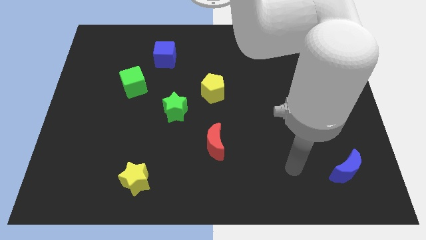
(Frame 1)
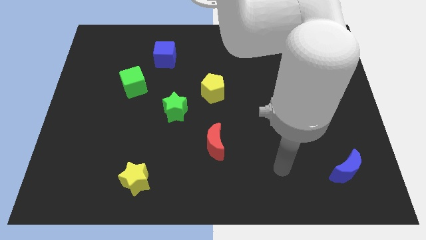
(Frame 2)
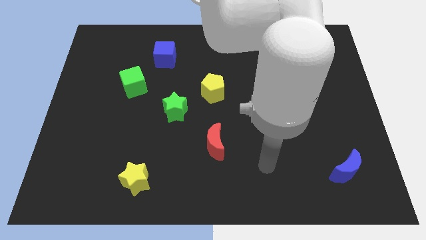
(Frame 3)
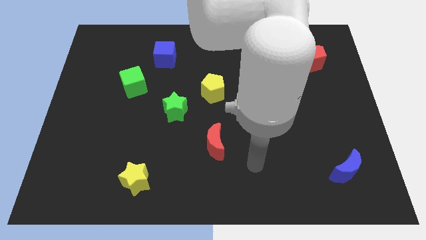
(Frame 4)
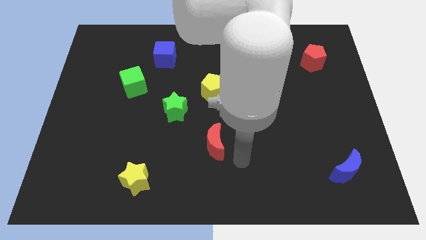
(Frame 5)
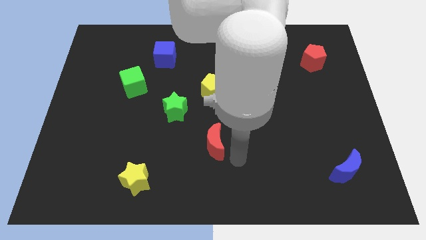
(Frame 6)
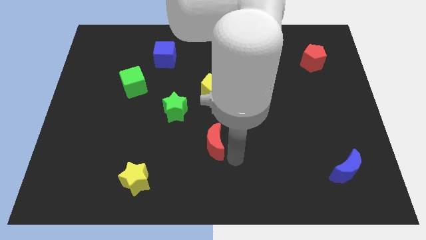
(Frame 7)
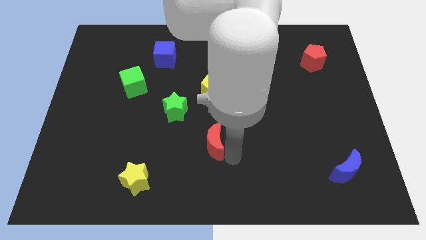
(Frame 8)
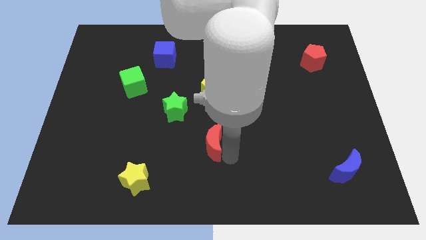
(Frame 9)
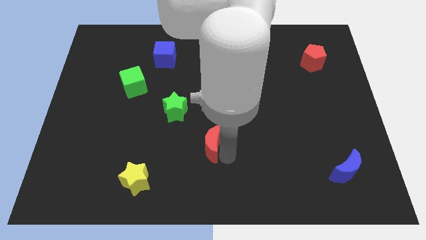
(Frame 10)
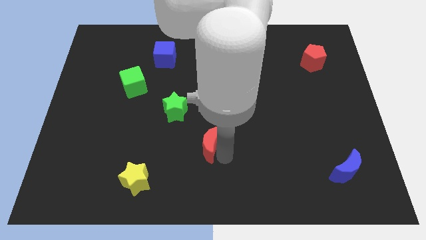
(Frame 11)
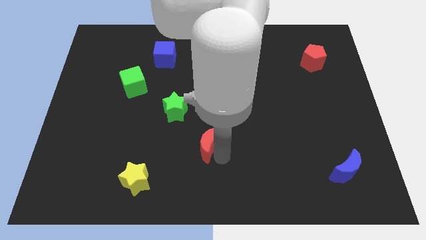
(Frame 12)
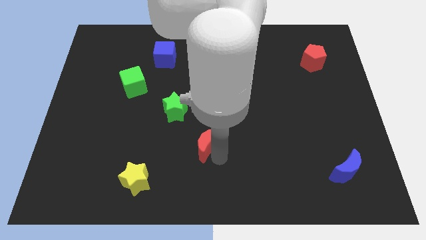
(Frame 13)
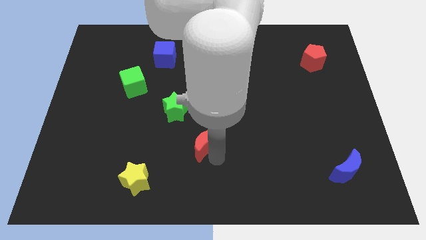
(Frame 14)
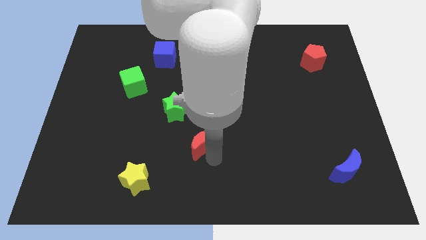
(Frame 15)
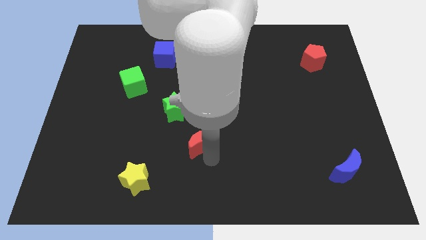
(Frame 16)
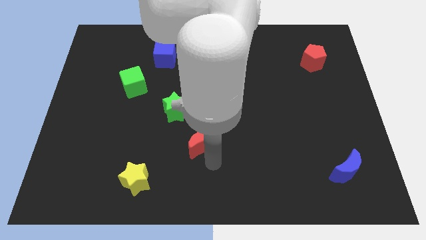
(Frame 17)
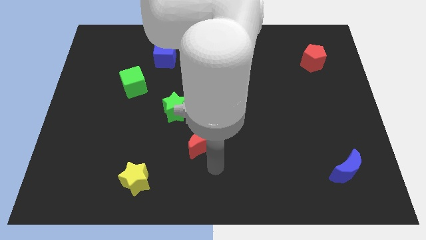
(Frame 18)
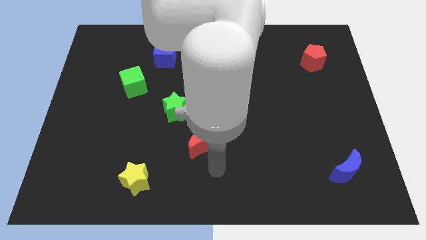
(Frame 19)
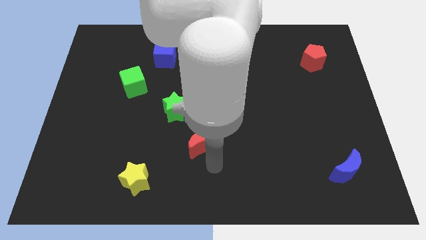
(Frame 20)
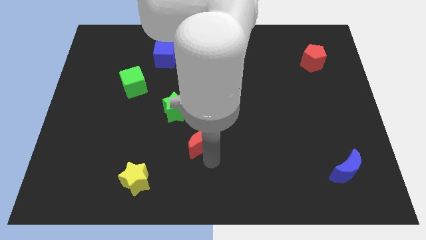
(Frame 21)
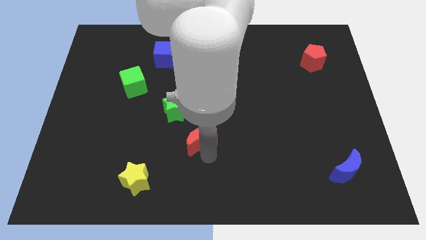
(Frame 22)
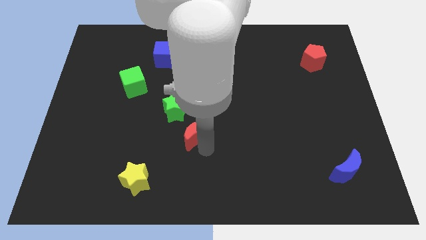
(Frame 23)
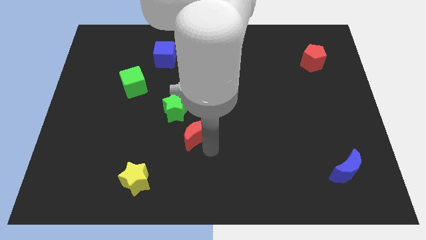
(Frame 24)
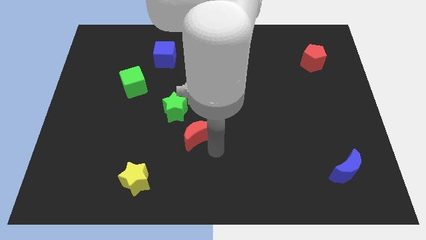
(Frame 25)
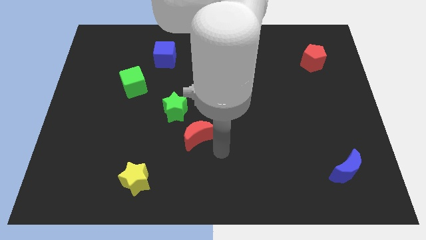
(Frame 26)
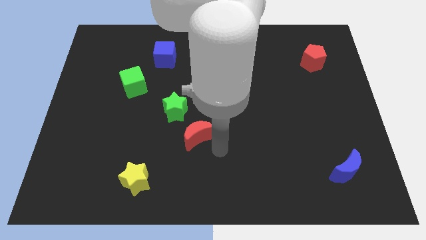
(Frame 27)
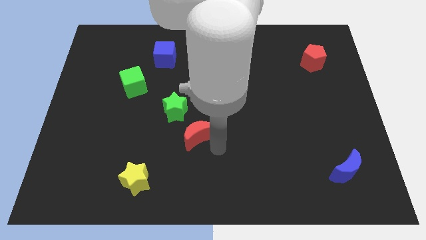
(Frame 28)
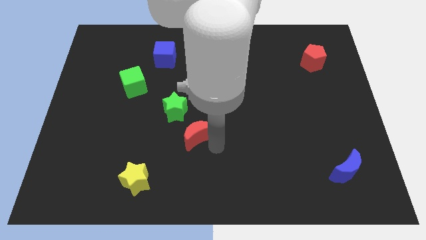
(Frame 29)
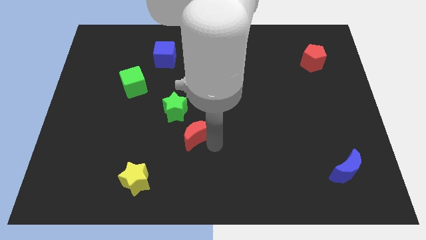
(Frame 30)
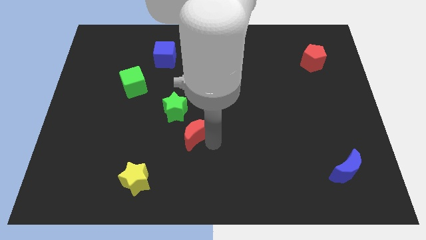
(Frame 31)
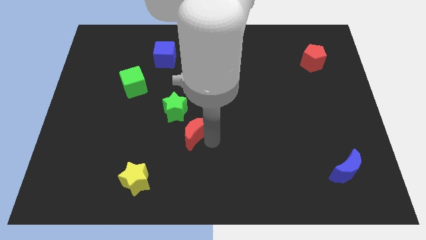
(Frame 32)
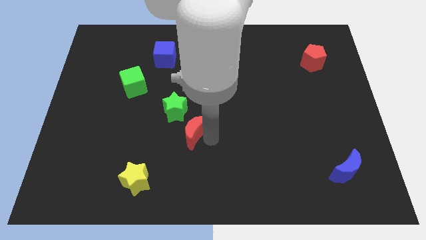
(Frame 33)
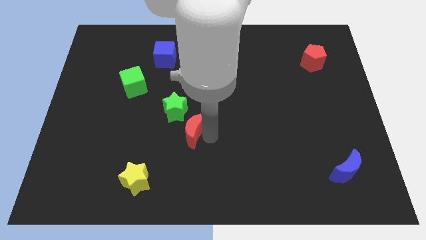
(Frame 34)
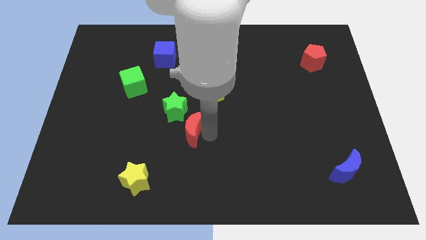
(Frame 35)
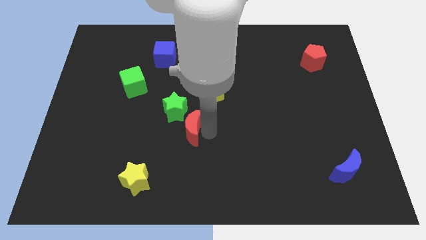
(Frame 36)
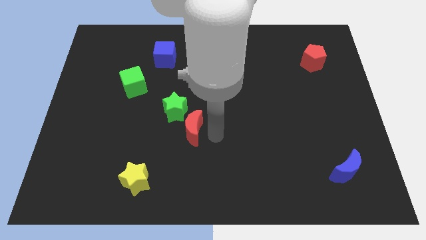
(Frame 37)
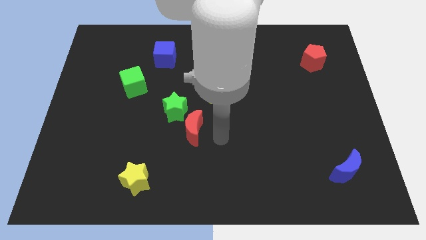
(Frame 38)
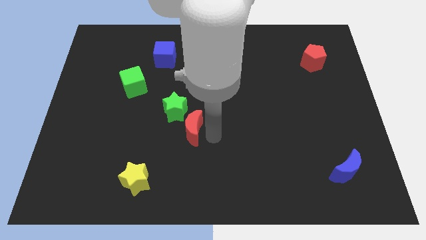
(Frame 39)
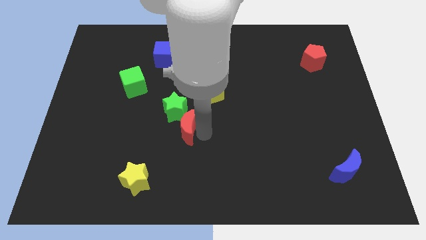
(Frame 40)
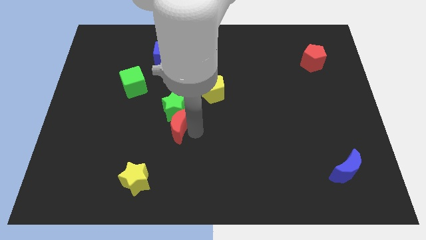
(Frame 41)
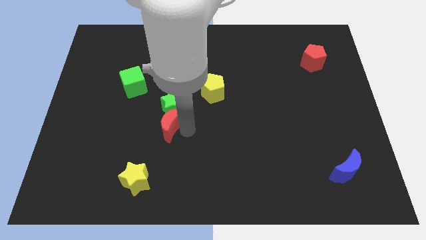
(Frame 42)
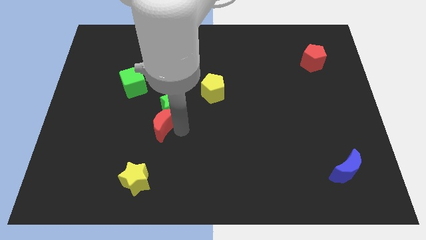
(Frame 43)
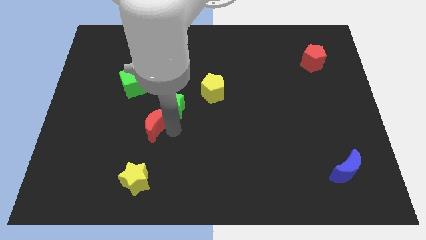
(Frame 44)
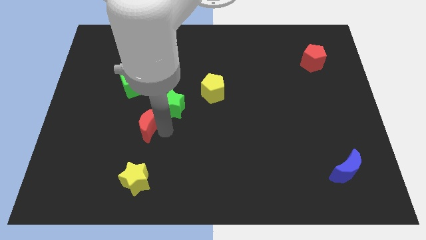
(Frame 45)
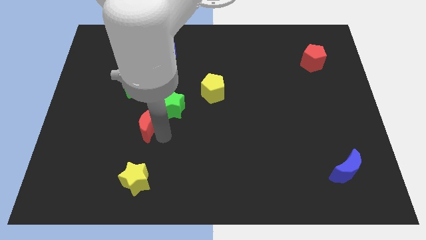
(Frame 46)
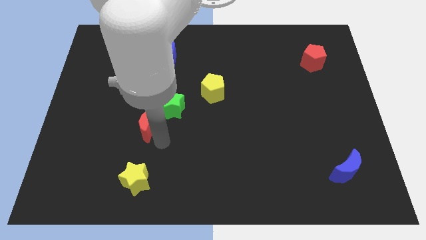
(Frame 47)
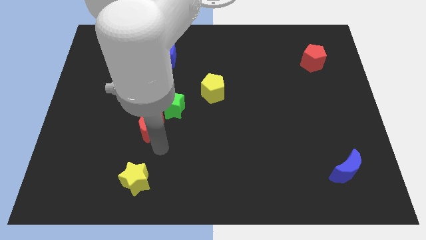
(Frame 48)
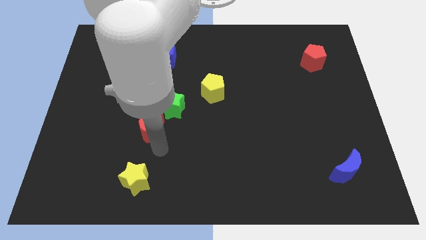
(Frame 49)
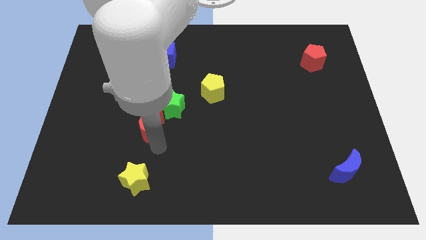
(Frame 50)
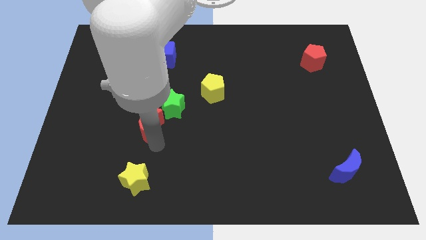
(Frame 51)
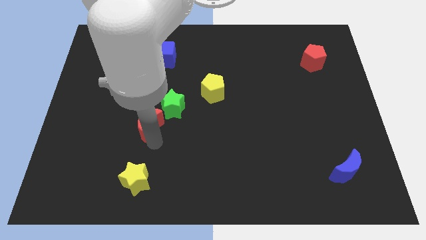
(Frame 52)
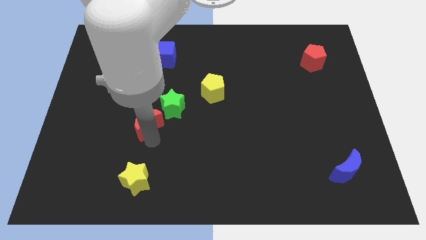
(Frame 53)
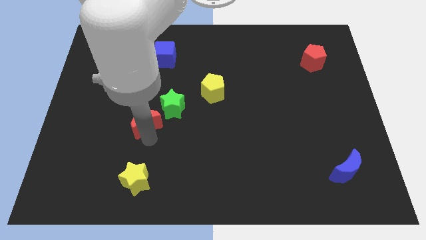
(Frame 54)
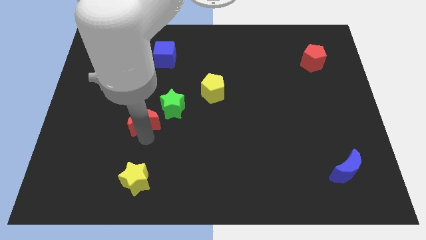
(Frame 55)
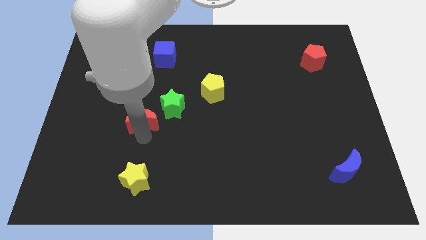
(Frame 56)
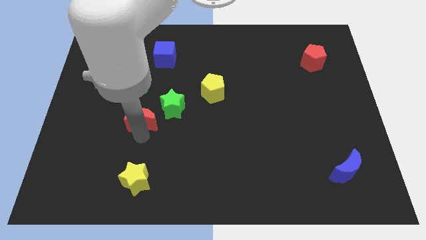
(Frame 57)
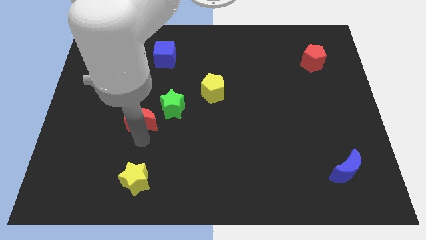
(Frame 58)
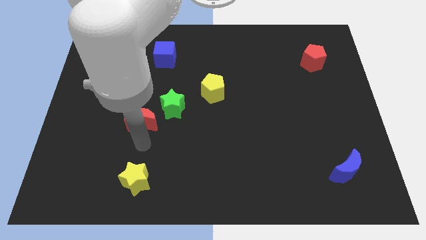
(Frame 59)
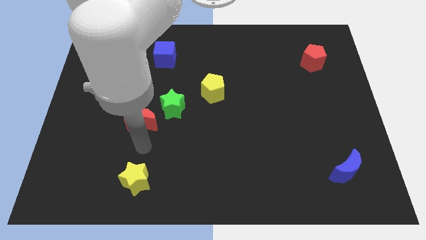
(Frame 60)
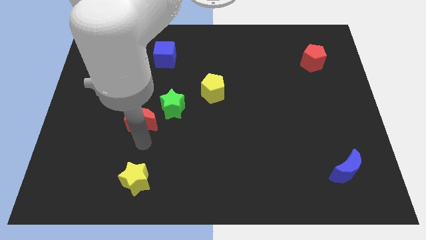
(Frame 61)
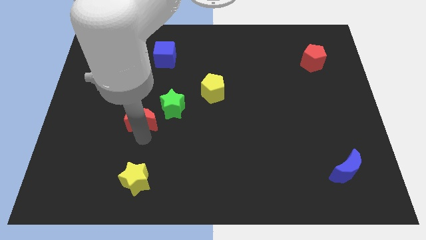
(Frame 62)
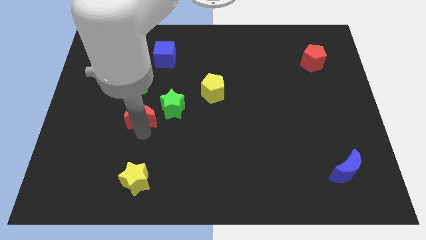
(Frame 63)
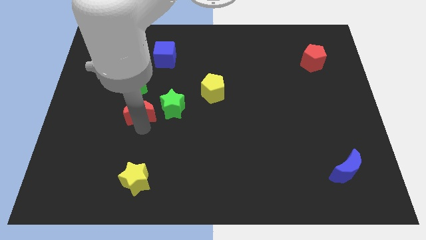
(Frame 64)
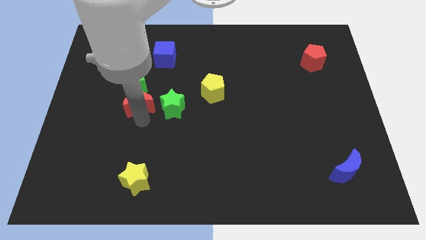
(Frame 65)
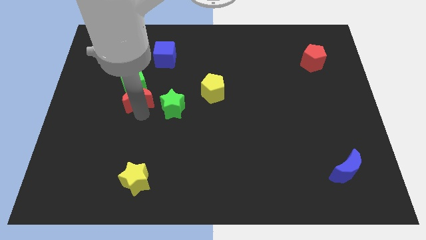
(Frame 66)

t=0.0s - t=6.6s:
put the red moon to the green cube

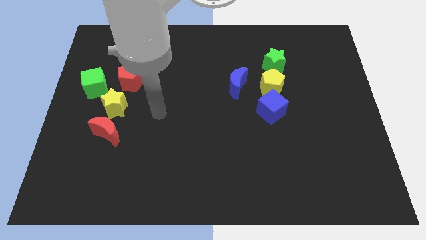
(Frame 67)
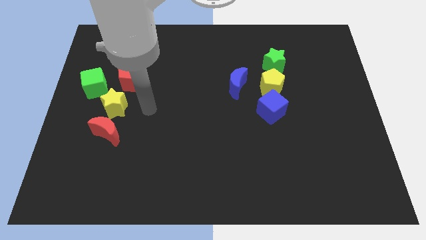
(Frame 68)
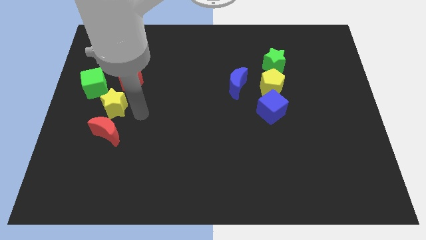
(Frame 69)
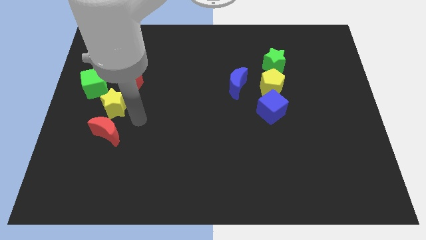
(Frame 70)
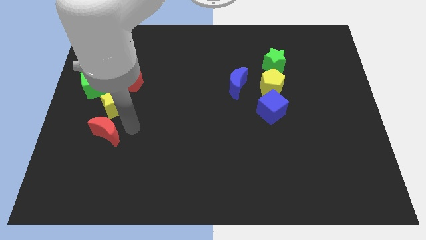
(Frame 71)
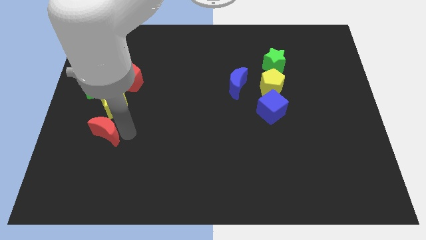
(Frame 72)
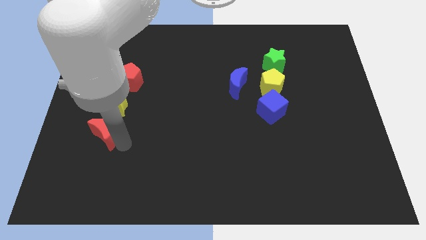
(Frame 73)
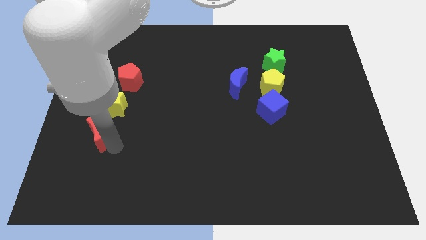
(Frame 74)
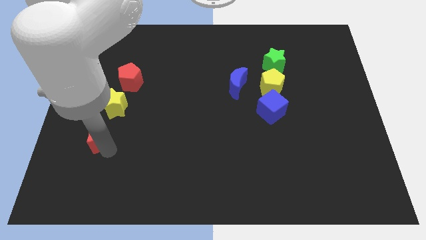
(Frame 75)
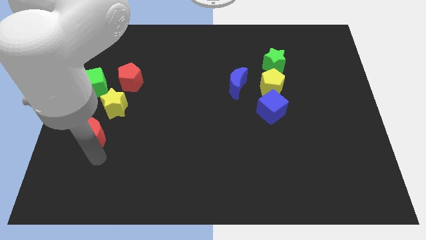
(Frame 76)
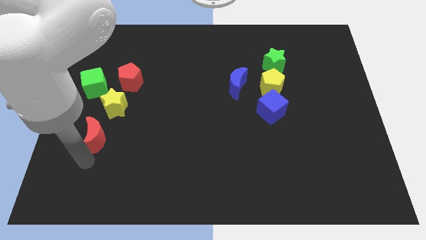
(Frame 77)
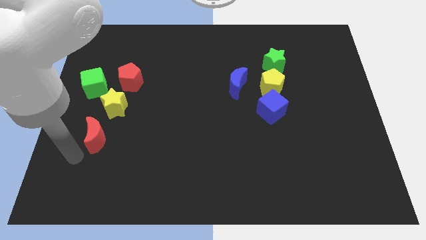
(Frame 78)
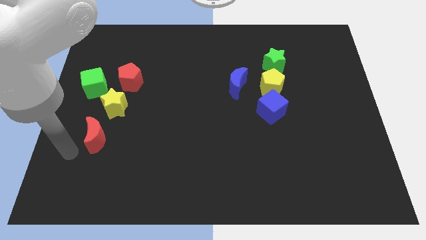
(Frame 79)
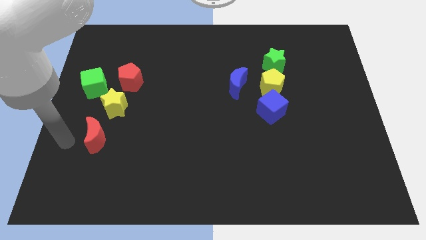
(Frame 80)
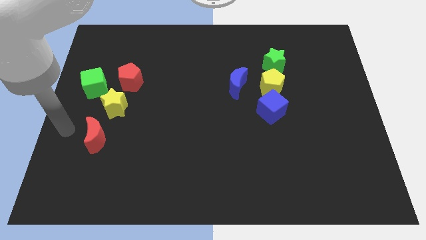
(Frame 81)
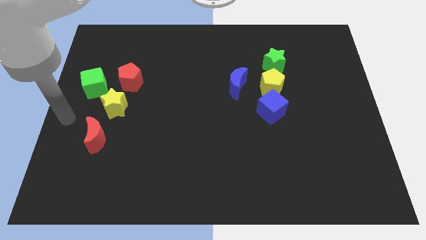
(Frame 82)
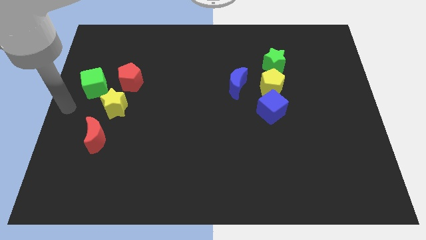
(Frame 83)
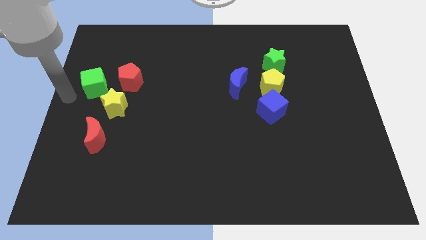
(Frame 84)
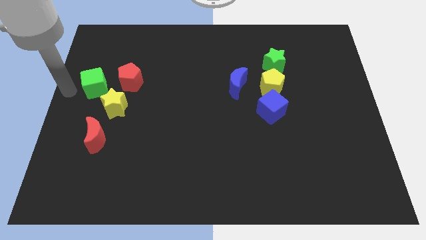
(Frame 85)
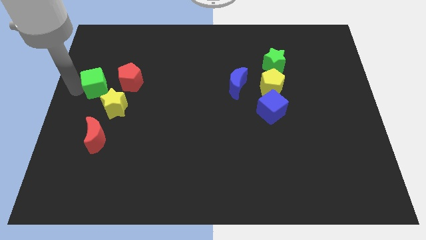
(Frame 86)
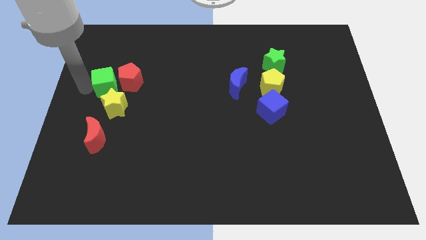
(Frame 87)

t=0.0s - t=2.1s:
push the green cube to the red pentagon
